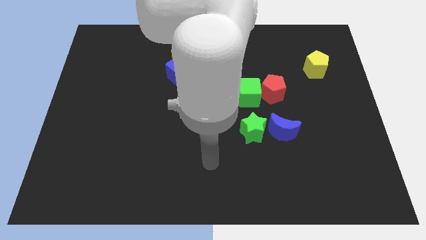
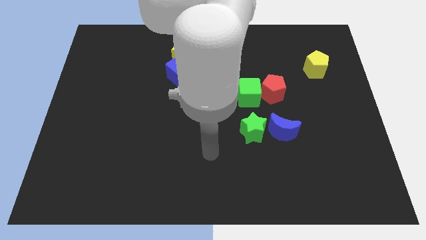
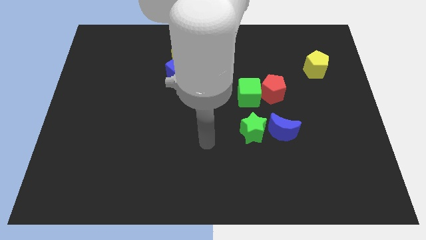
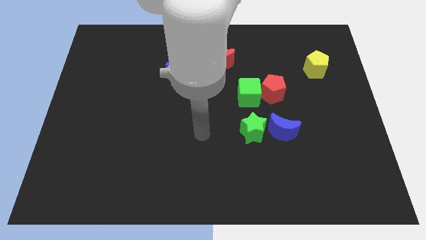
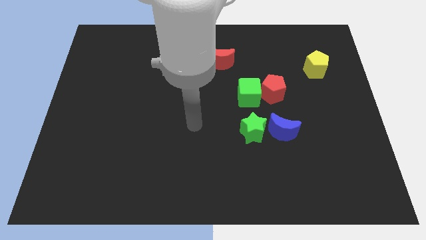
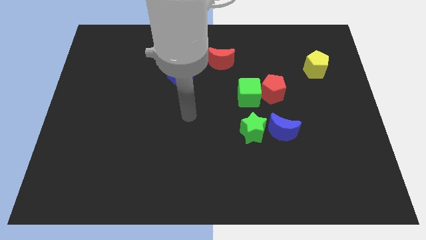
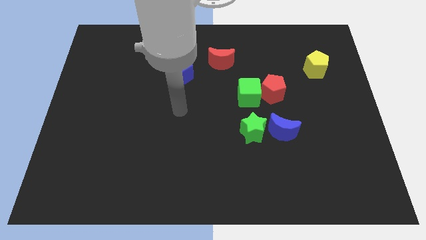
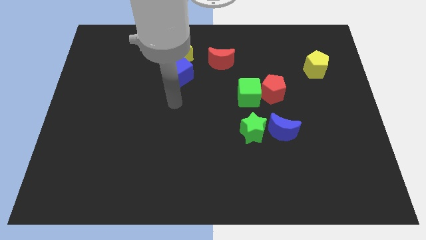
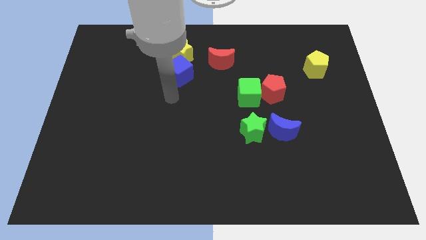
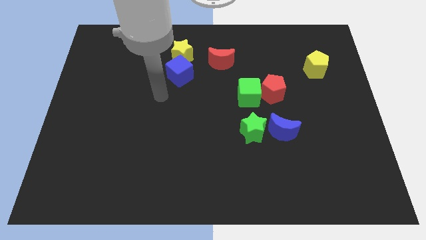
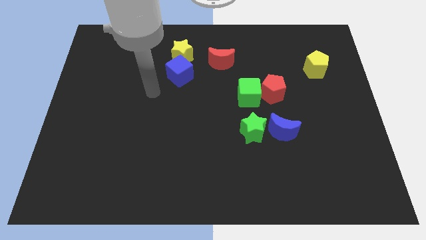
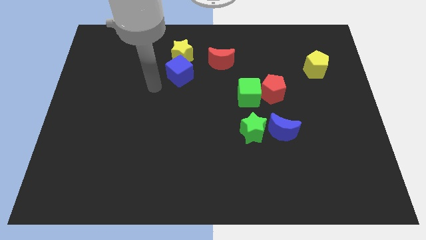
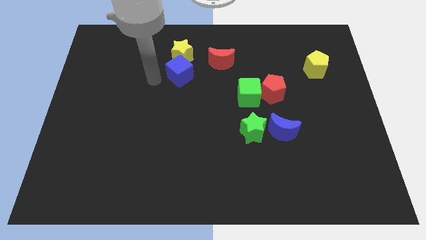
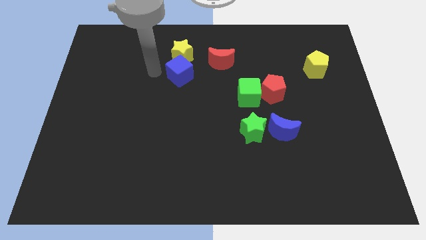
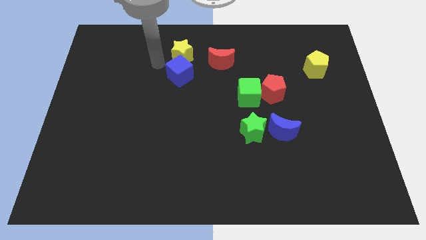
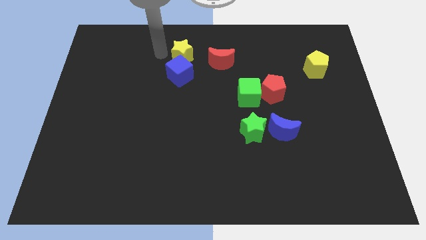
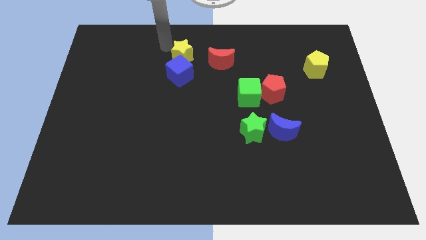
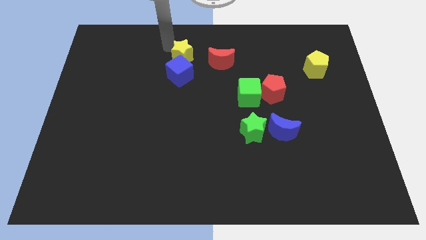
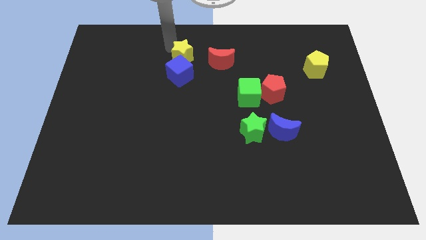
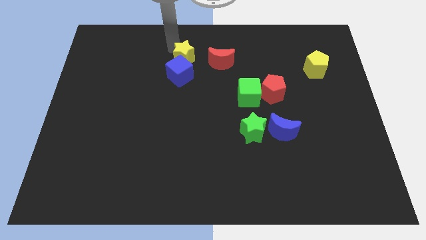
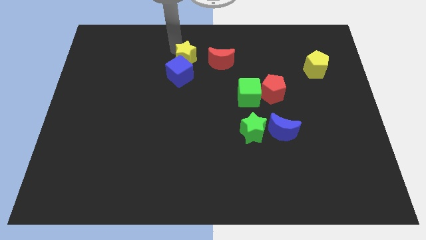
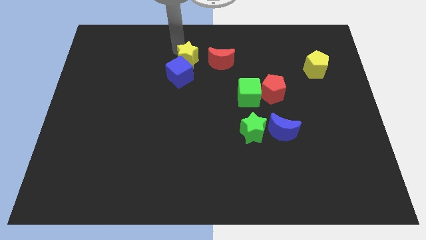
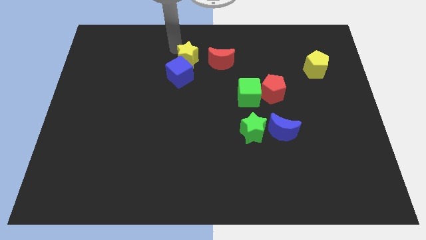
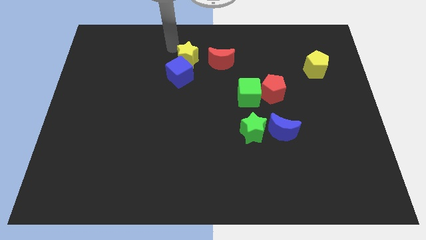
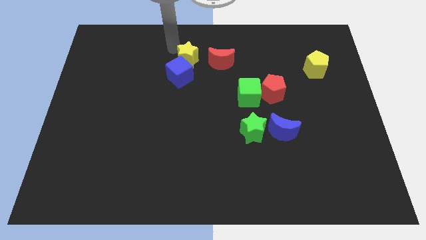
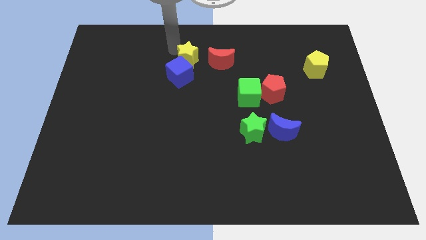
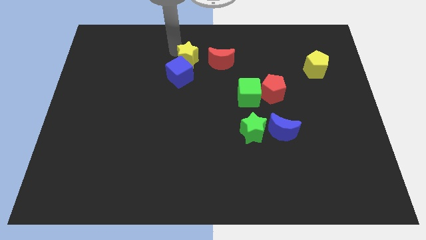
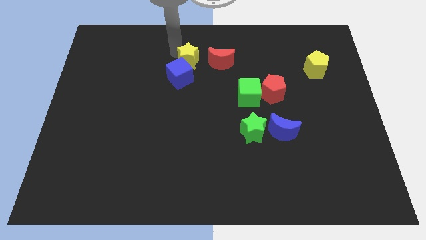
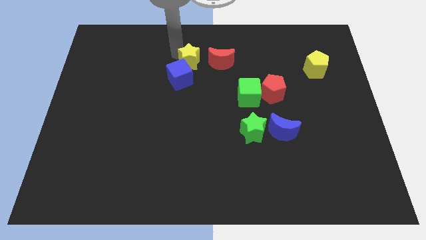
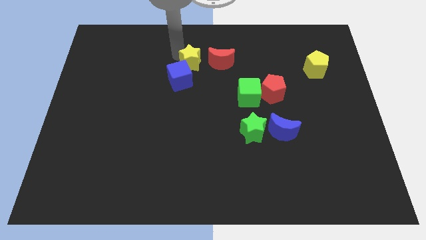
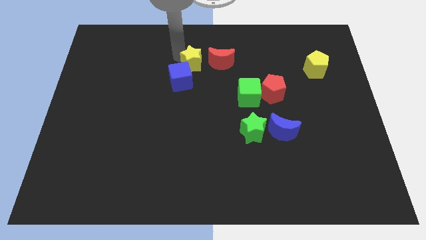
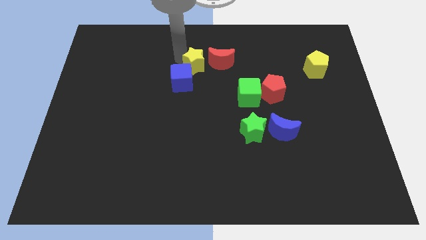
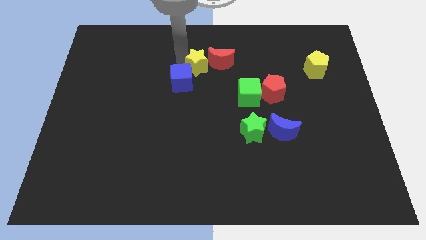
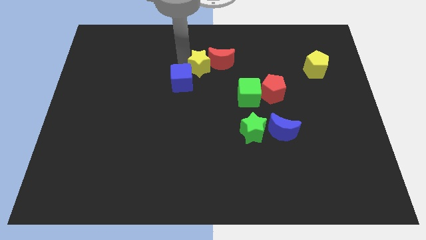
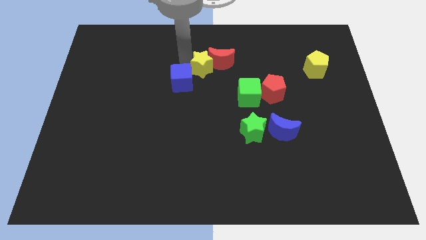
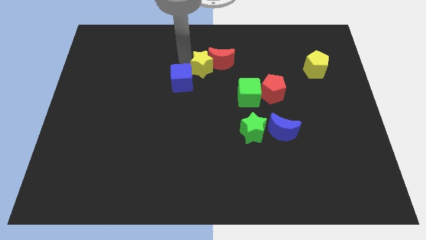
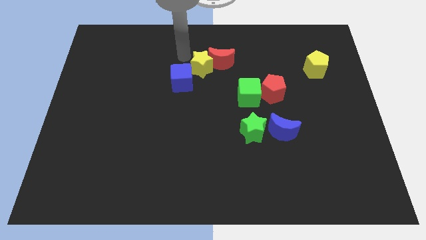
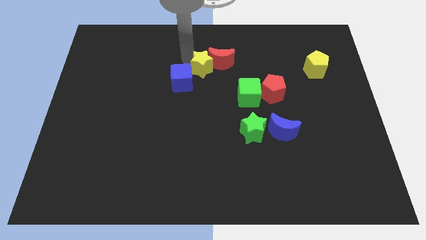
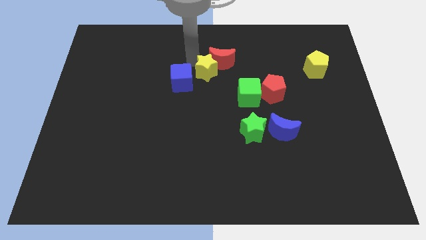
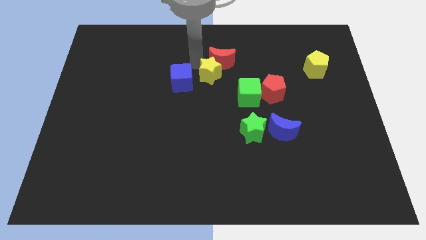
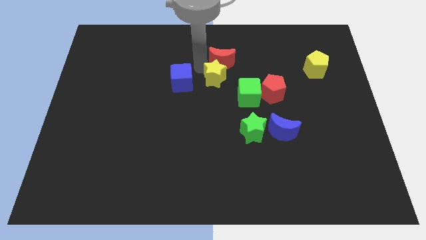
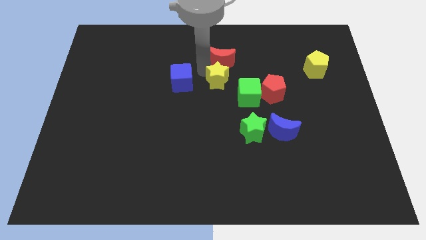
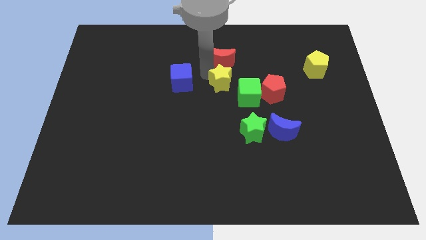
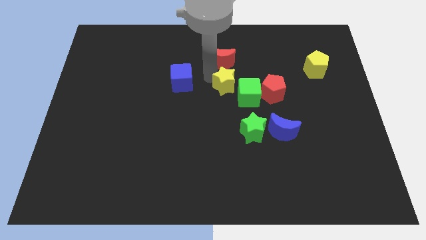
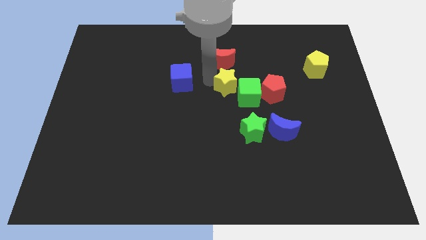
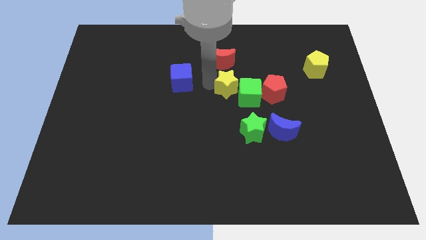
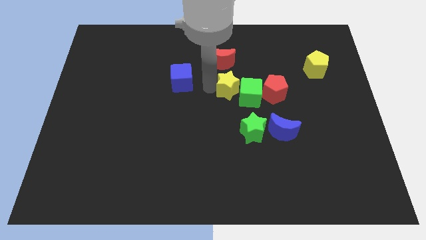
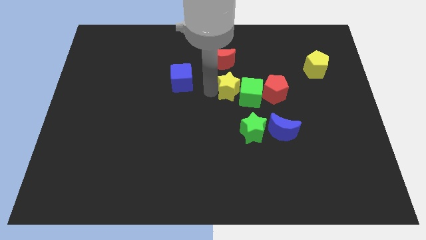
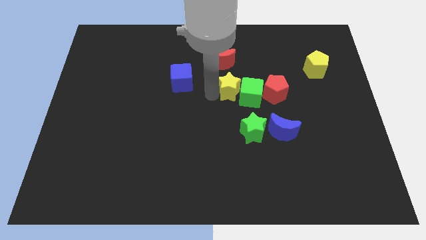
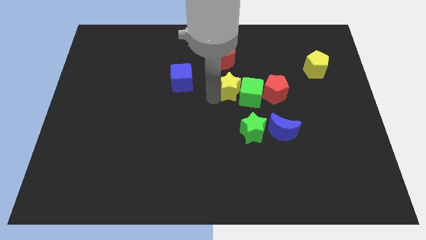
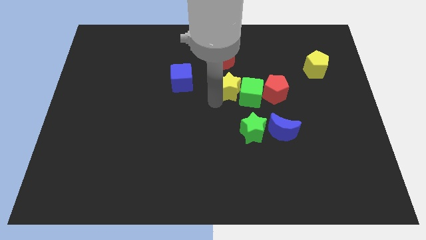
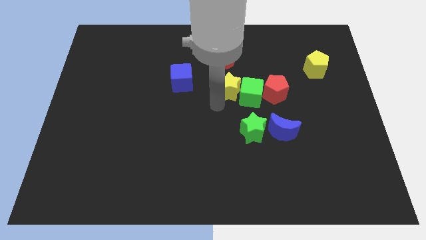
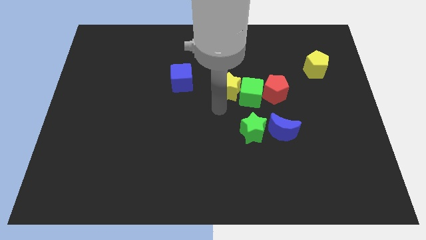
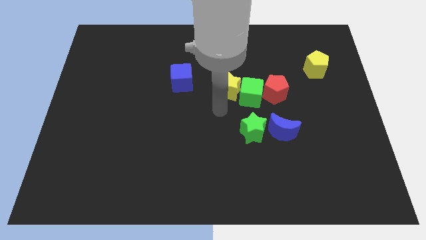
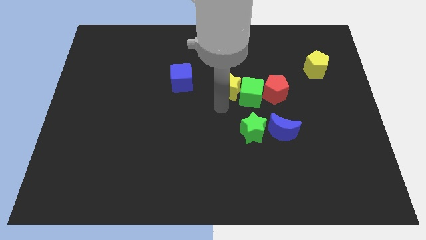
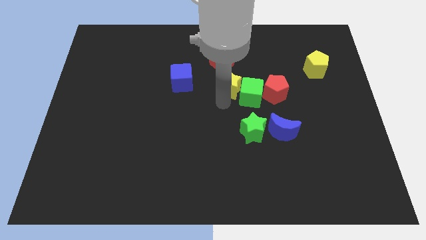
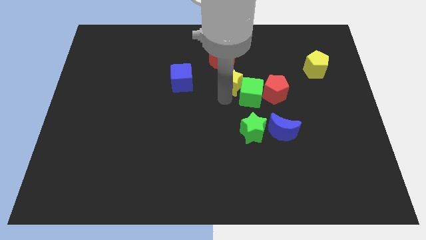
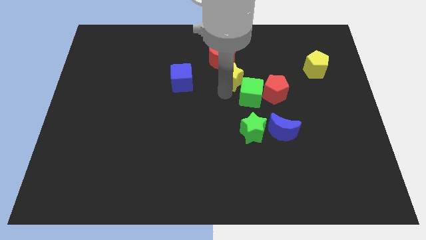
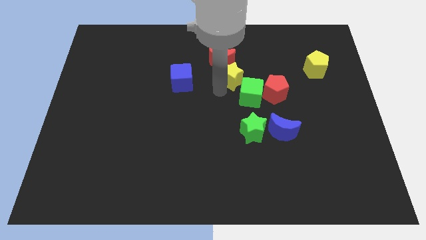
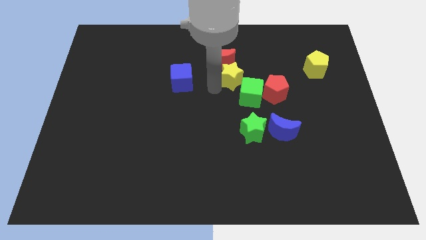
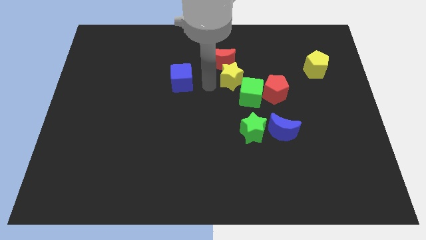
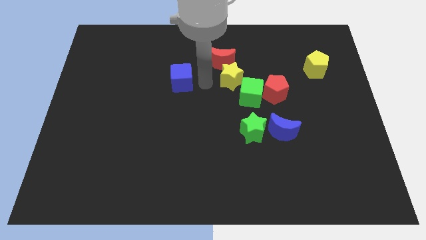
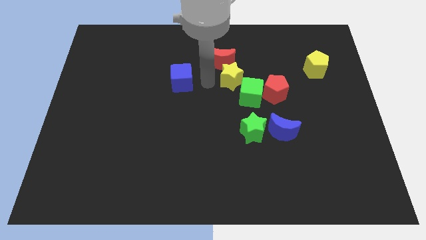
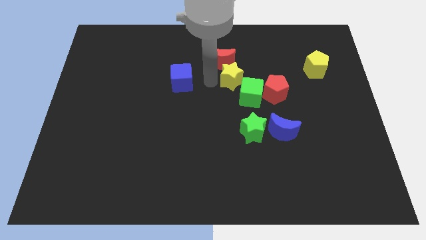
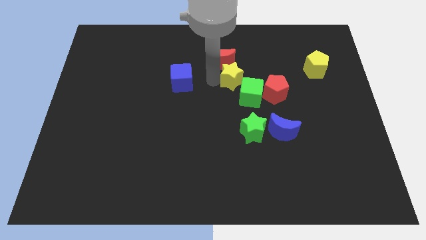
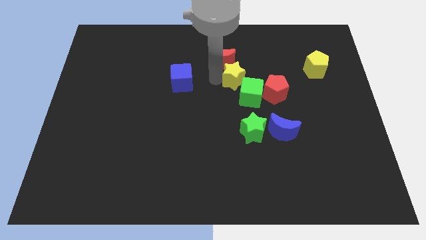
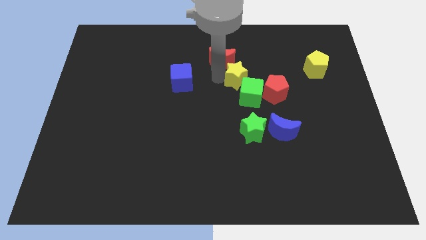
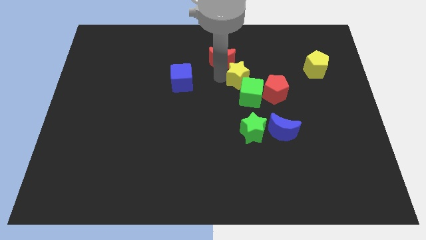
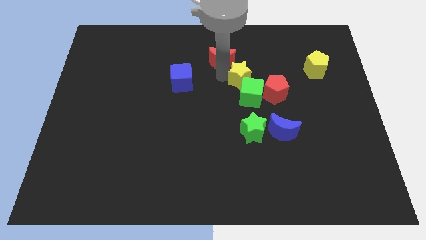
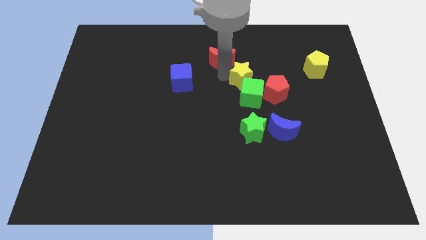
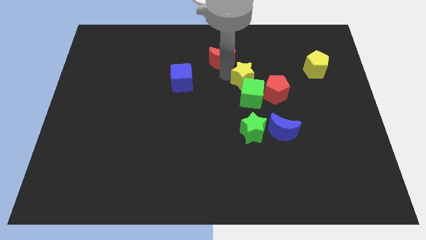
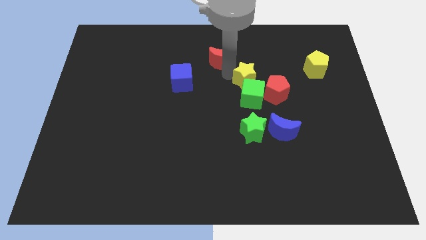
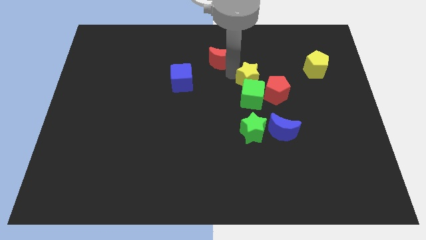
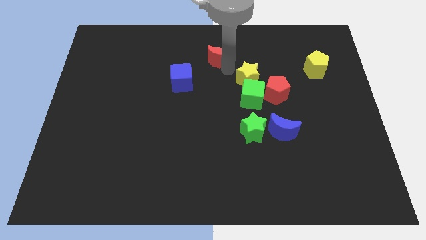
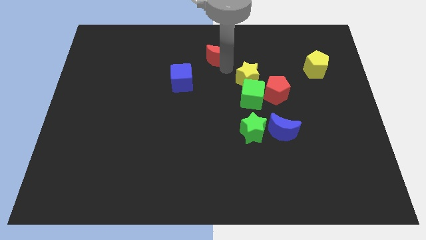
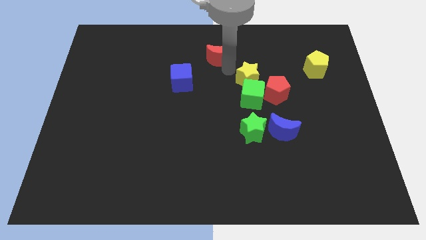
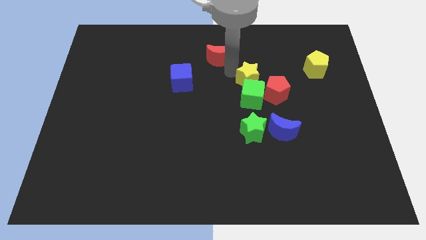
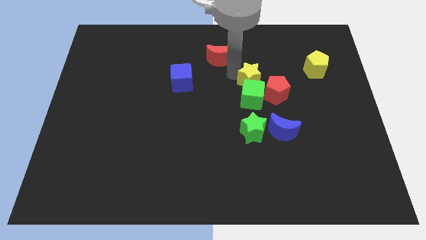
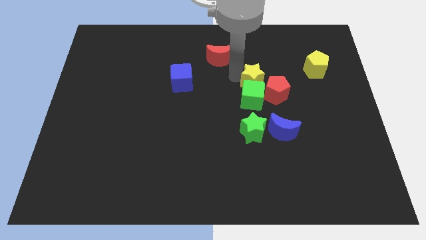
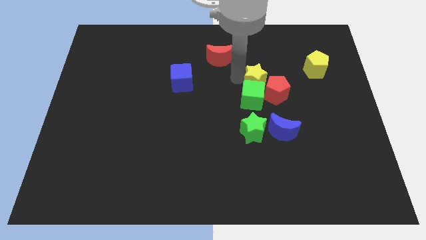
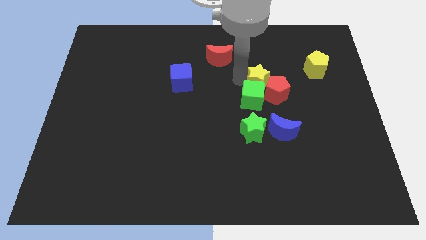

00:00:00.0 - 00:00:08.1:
slide the yellow star to the red pentagon
